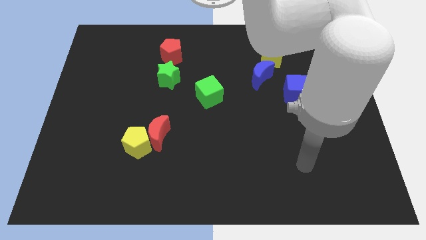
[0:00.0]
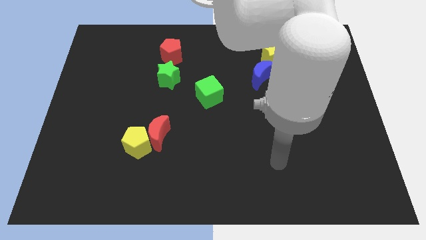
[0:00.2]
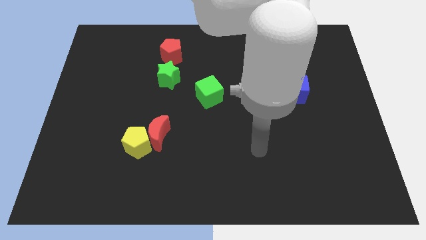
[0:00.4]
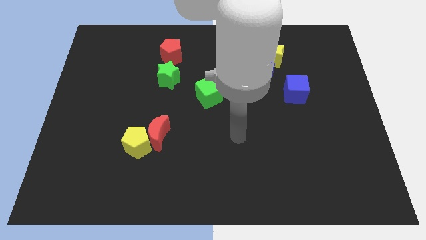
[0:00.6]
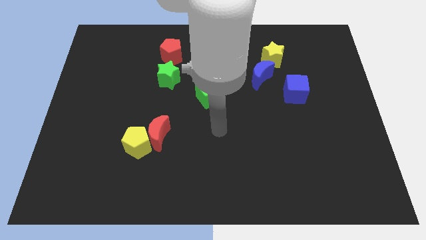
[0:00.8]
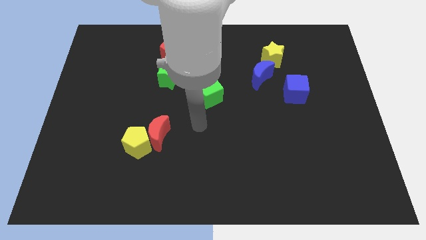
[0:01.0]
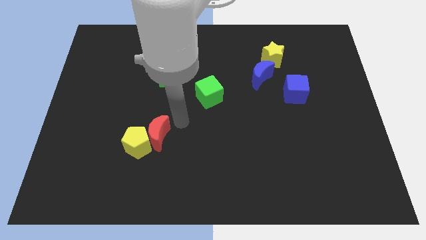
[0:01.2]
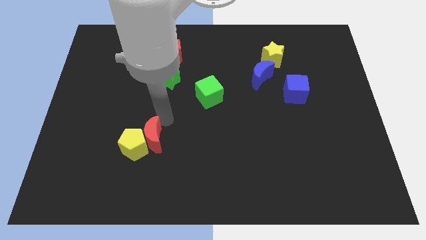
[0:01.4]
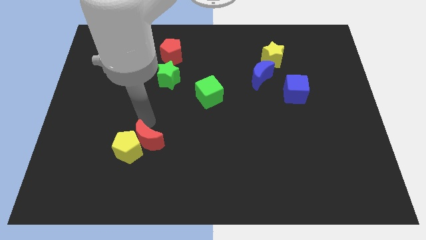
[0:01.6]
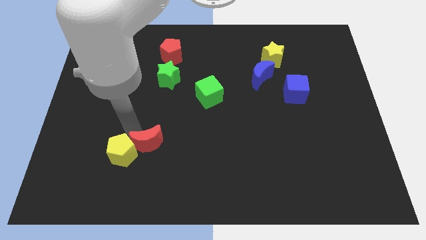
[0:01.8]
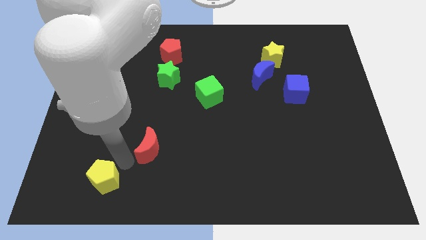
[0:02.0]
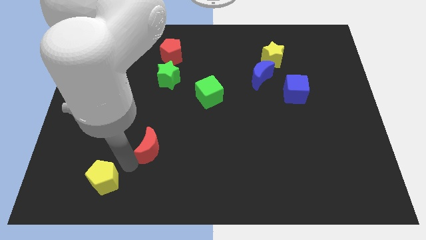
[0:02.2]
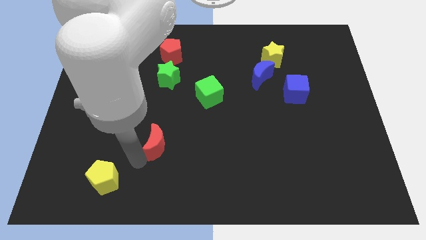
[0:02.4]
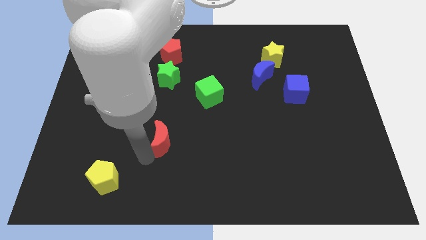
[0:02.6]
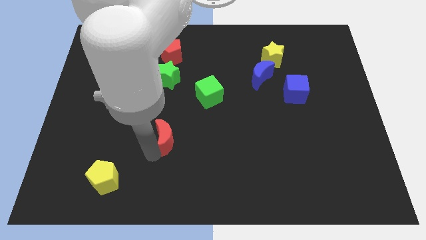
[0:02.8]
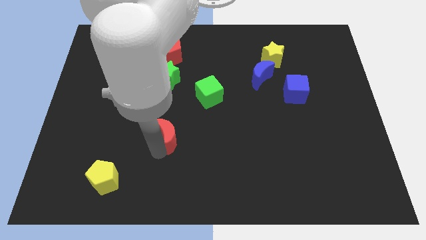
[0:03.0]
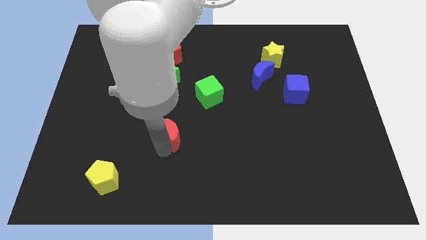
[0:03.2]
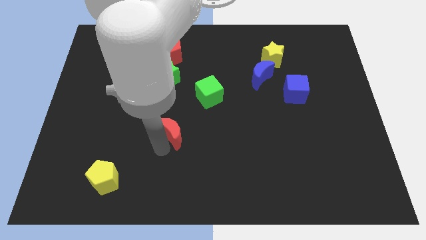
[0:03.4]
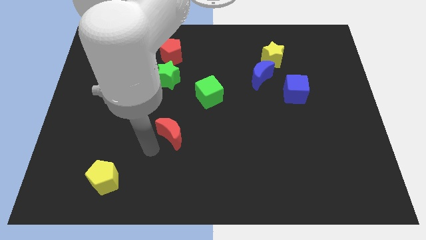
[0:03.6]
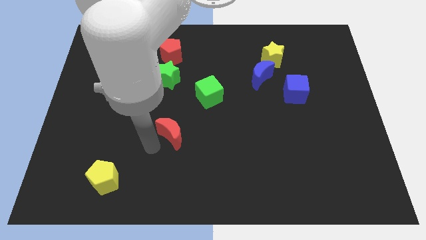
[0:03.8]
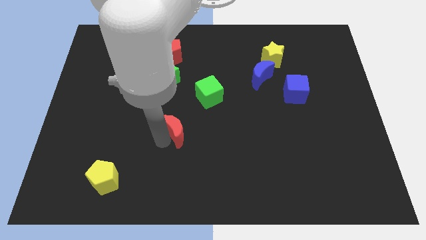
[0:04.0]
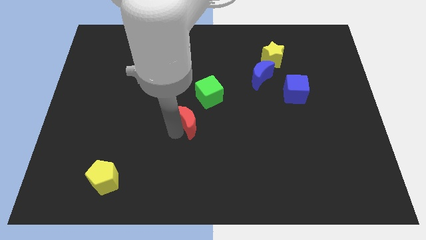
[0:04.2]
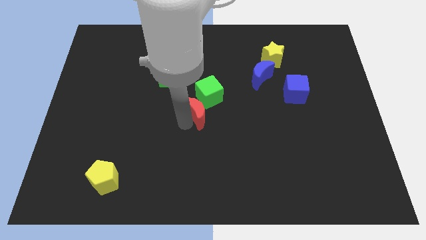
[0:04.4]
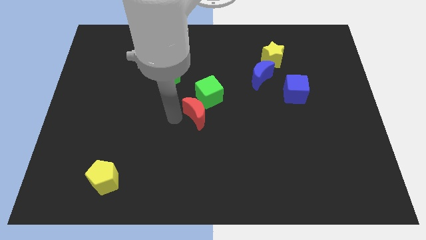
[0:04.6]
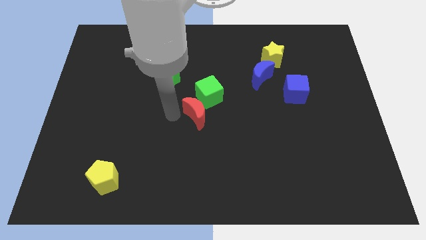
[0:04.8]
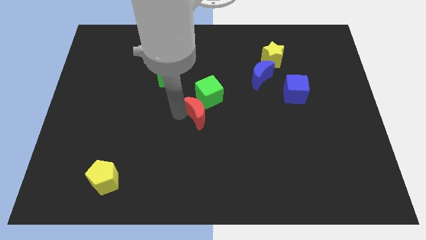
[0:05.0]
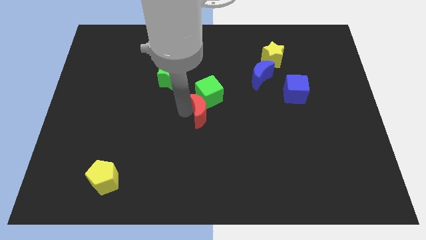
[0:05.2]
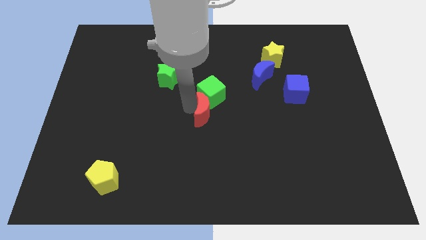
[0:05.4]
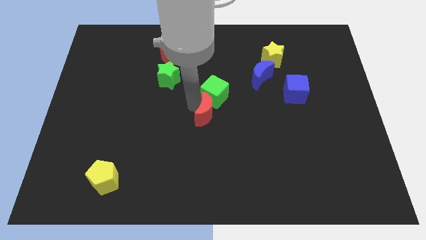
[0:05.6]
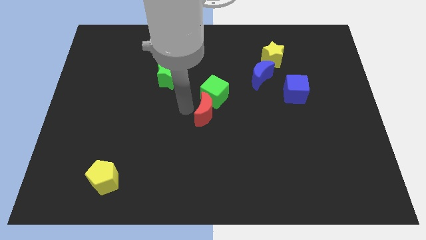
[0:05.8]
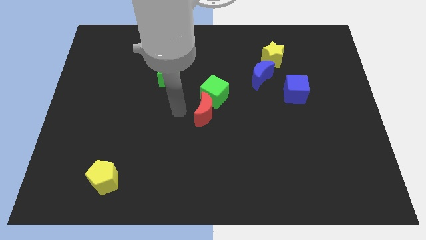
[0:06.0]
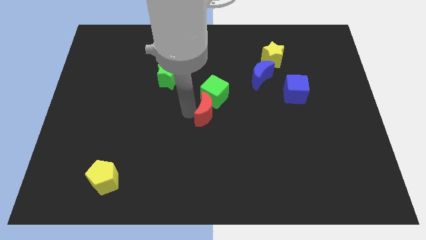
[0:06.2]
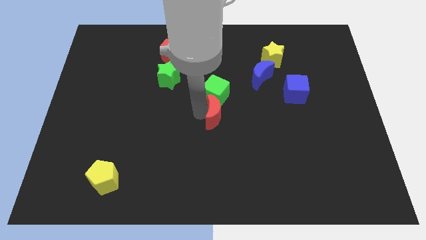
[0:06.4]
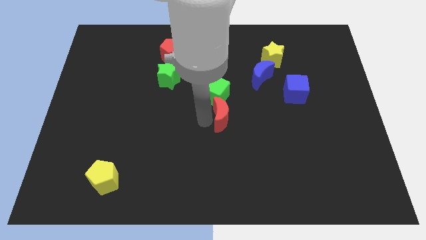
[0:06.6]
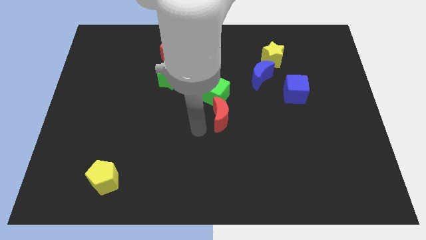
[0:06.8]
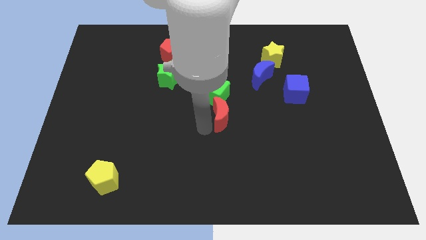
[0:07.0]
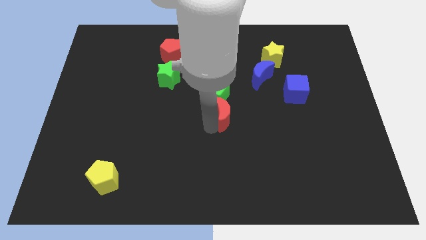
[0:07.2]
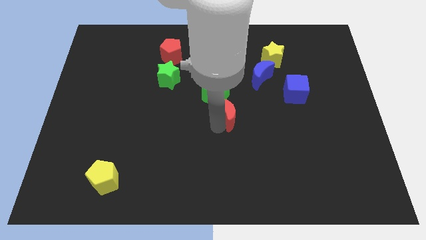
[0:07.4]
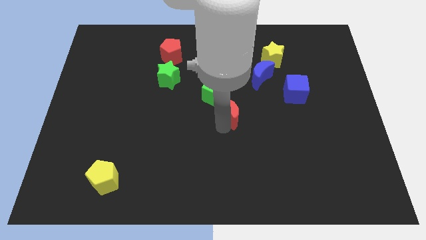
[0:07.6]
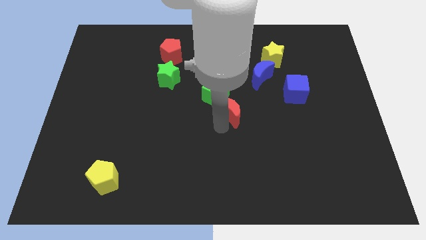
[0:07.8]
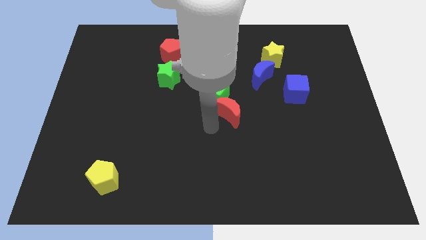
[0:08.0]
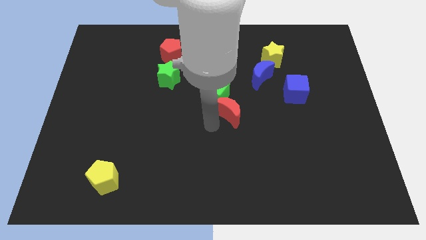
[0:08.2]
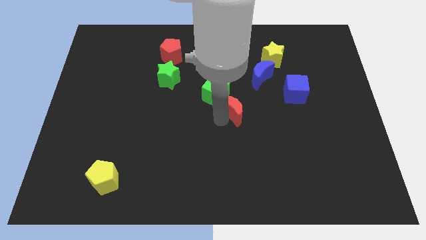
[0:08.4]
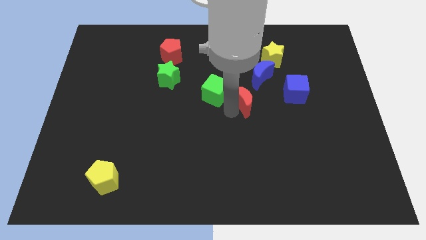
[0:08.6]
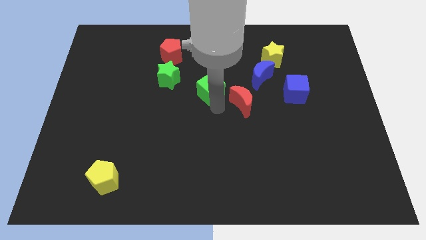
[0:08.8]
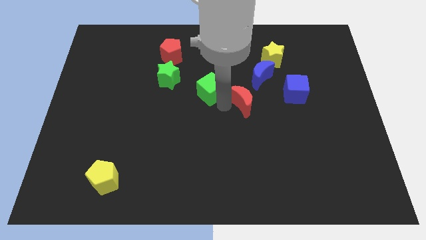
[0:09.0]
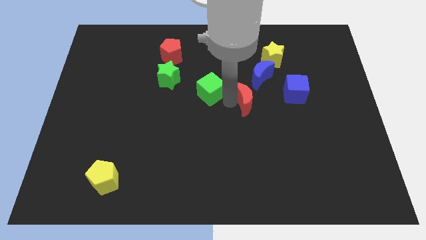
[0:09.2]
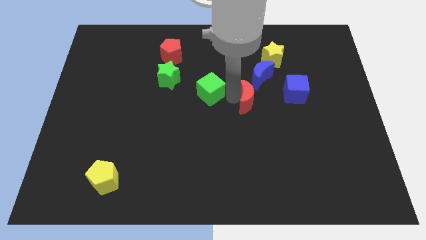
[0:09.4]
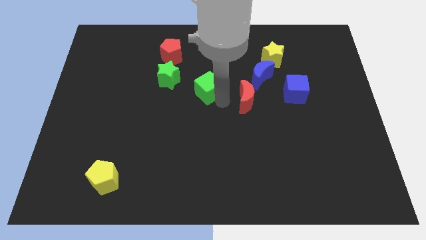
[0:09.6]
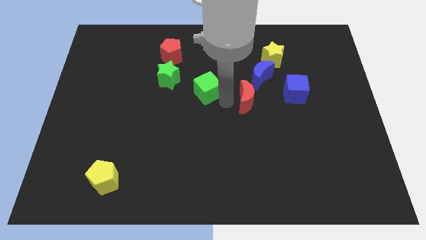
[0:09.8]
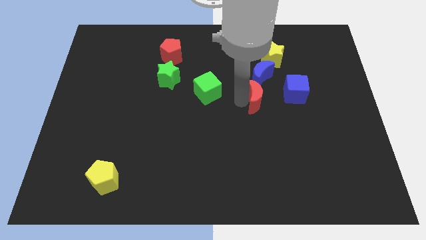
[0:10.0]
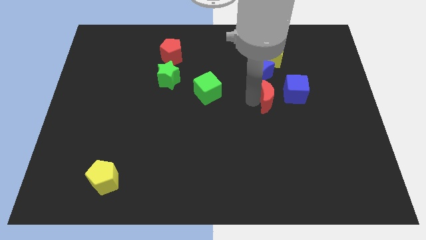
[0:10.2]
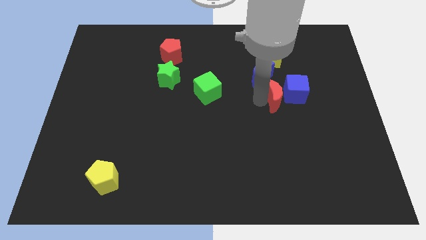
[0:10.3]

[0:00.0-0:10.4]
slide the red moon to the blue cube

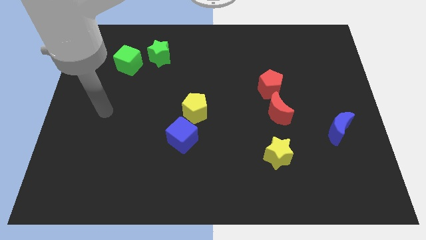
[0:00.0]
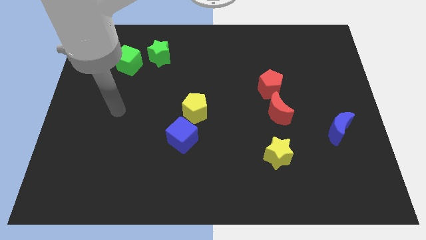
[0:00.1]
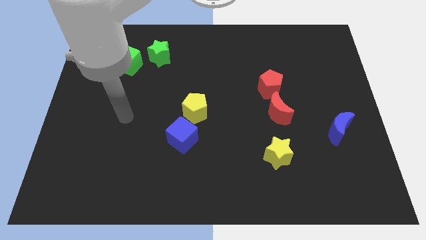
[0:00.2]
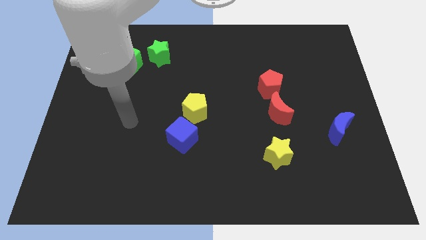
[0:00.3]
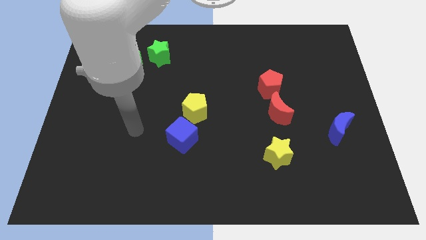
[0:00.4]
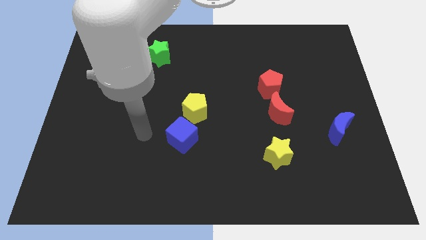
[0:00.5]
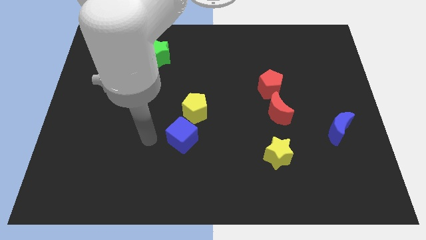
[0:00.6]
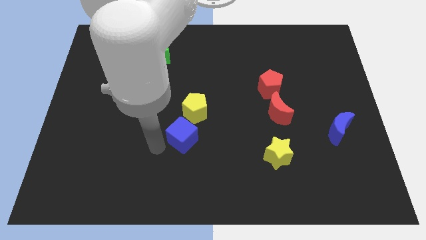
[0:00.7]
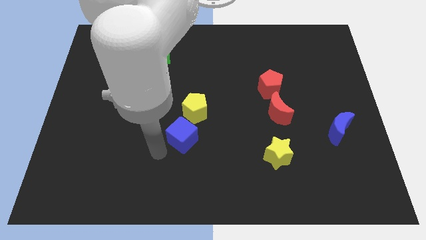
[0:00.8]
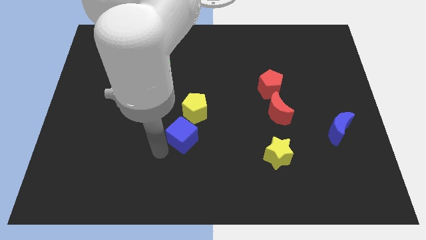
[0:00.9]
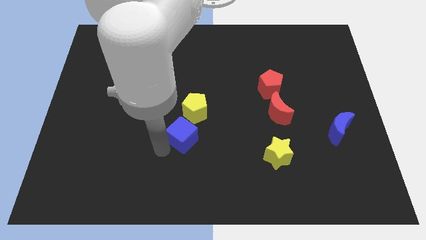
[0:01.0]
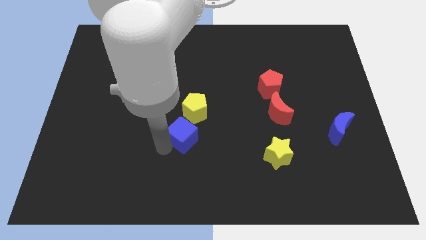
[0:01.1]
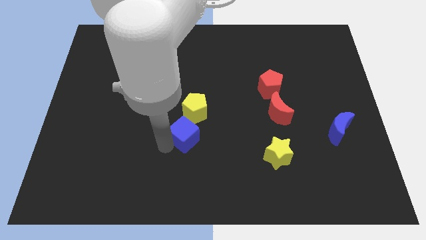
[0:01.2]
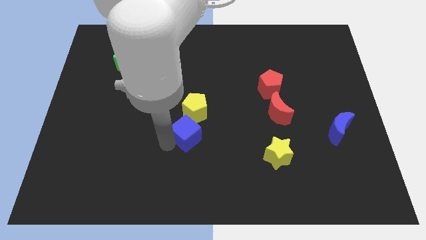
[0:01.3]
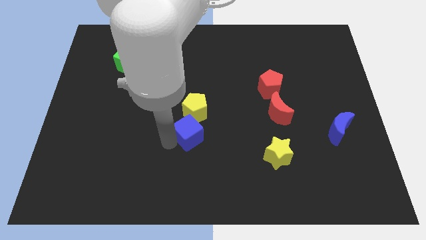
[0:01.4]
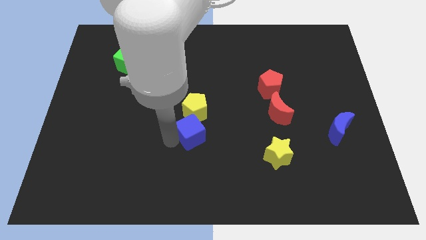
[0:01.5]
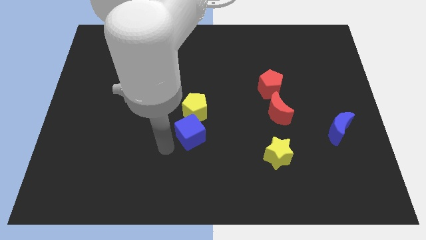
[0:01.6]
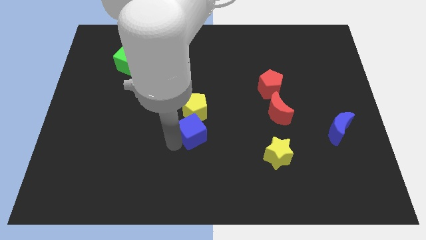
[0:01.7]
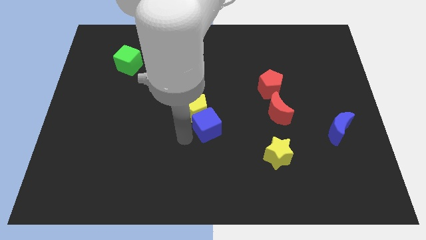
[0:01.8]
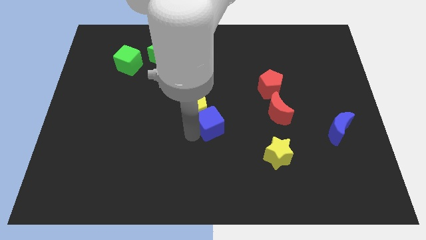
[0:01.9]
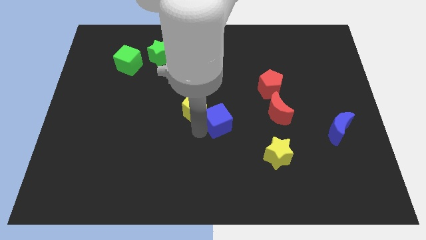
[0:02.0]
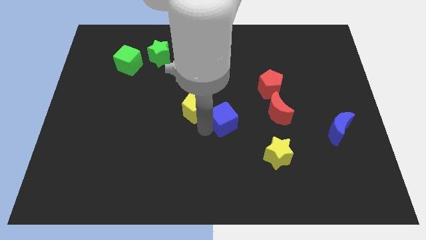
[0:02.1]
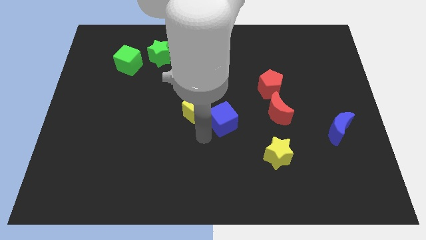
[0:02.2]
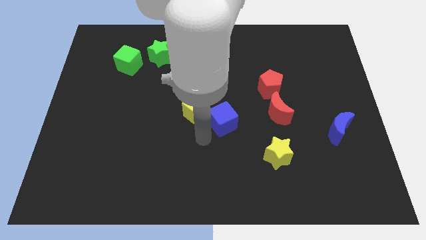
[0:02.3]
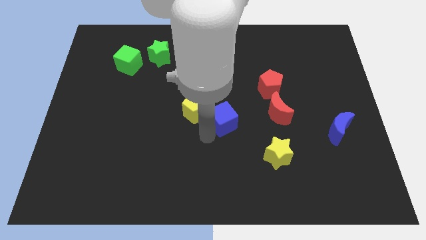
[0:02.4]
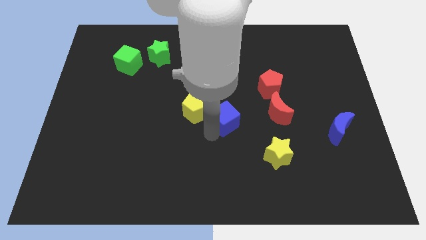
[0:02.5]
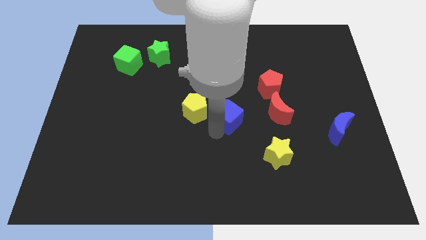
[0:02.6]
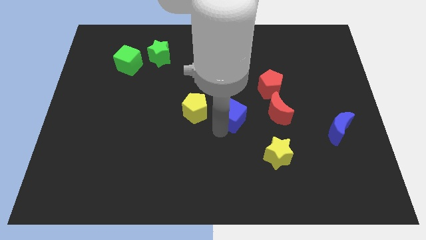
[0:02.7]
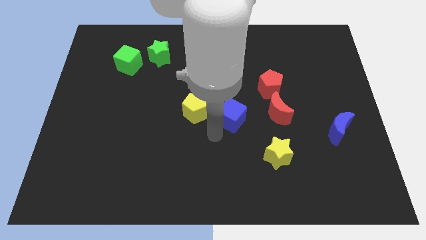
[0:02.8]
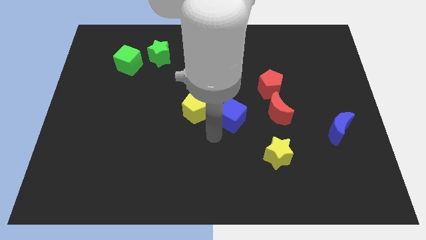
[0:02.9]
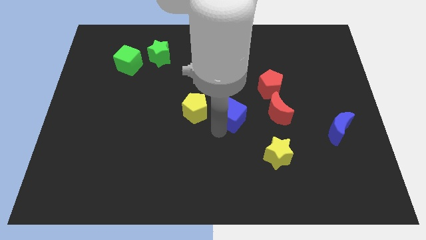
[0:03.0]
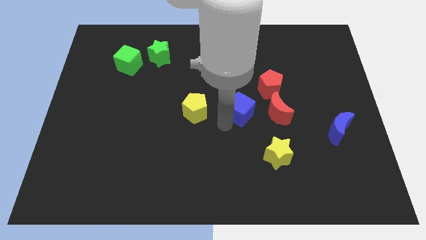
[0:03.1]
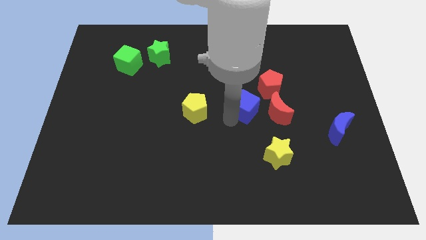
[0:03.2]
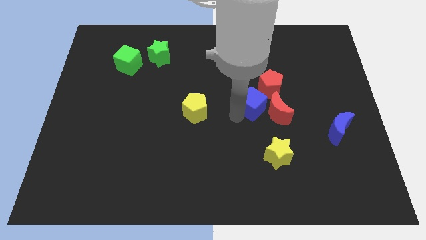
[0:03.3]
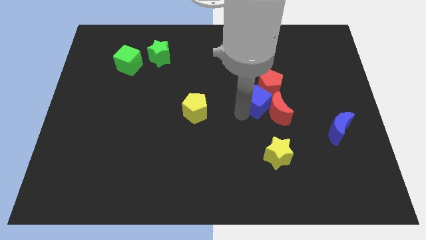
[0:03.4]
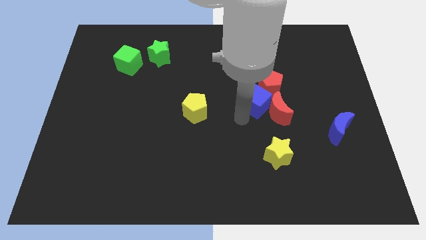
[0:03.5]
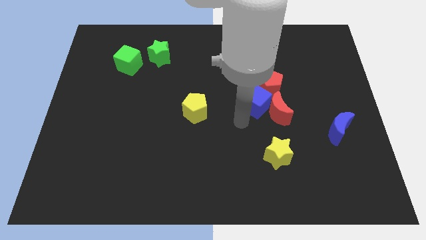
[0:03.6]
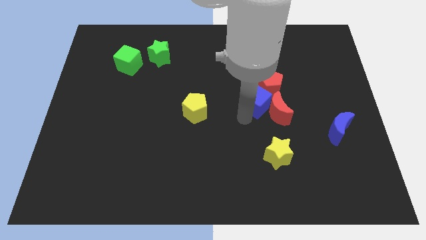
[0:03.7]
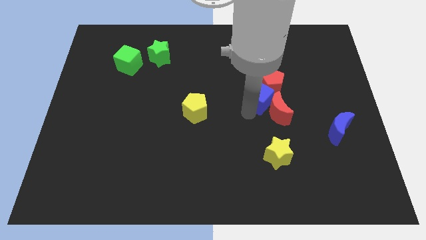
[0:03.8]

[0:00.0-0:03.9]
push the blue cube towards the red pentagon
